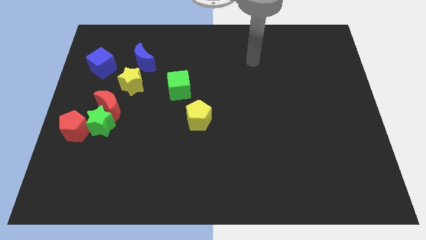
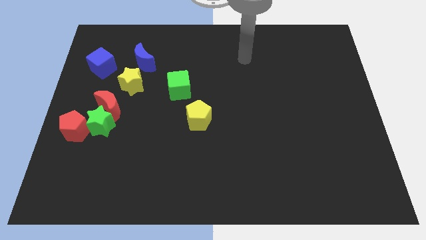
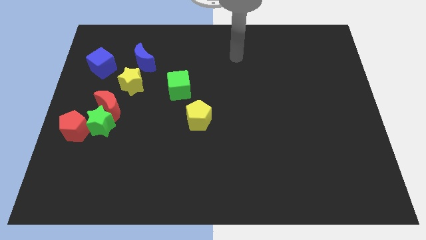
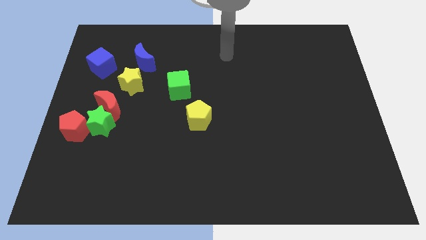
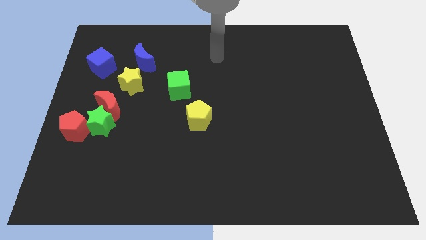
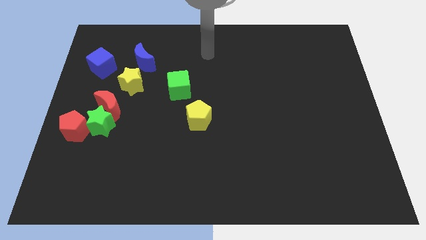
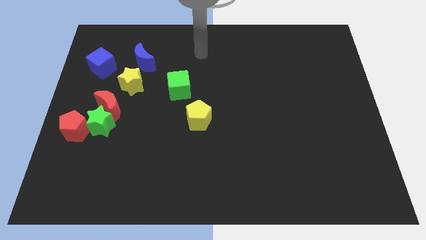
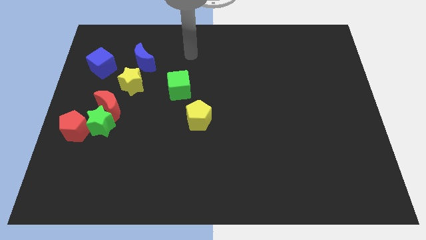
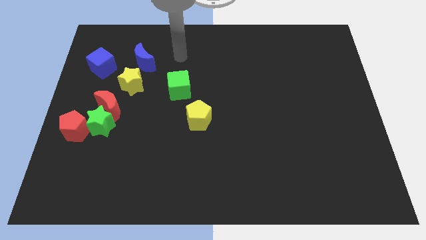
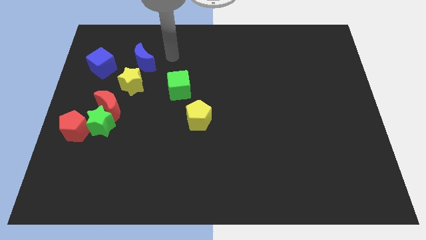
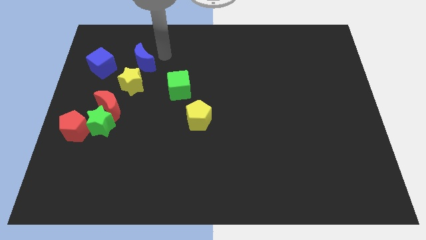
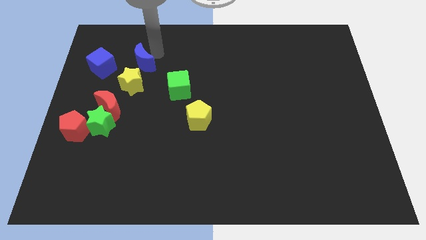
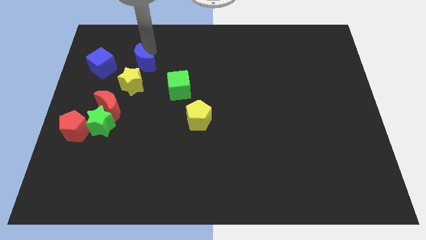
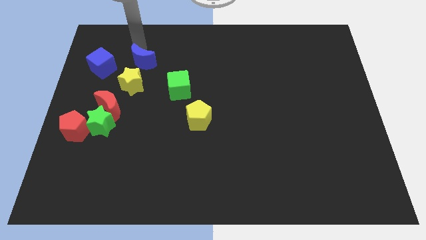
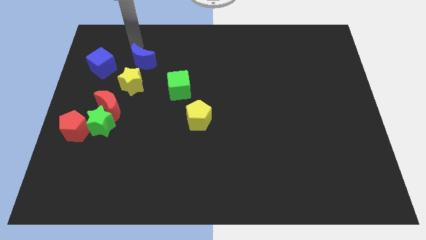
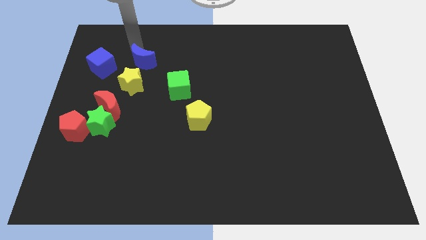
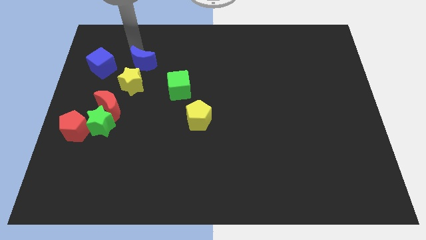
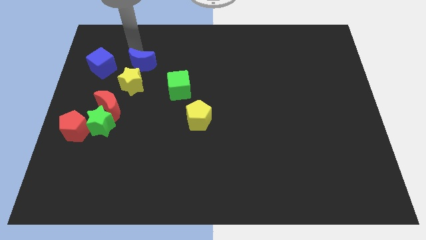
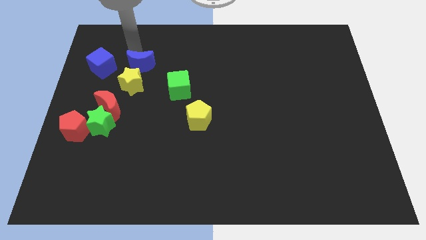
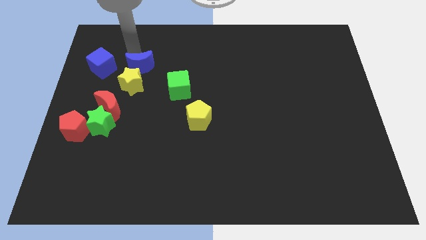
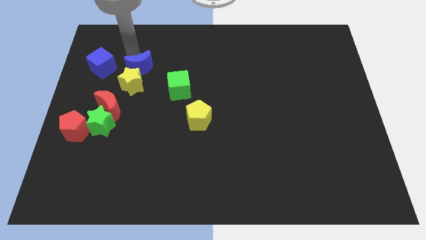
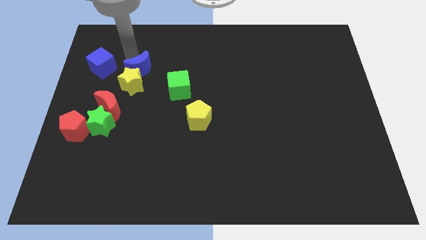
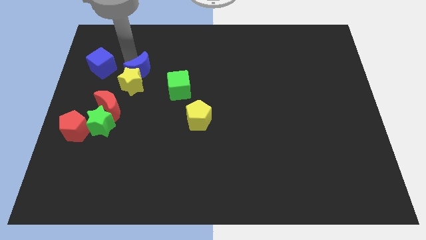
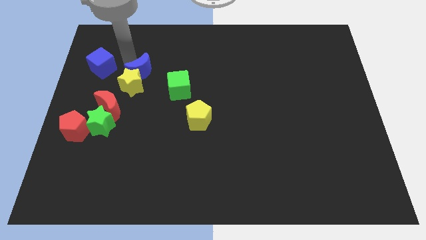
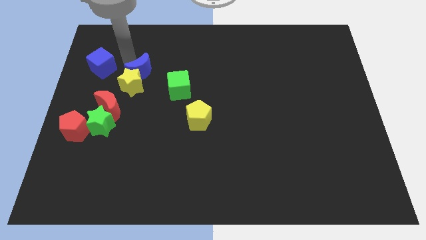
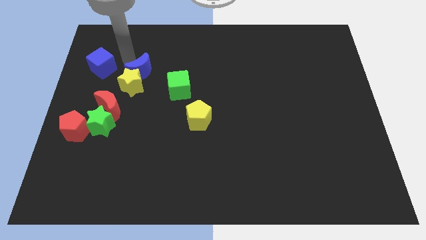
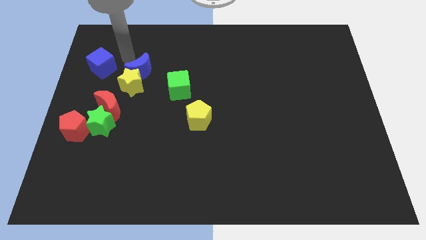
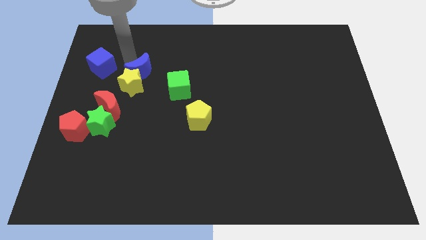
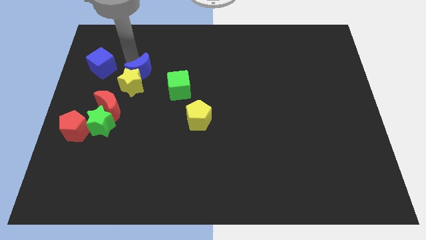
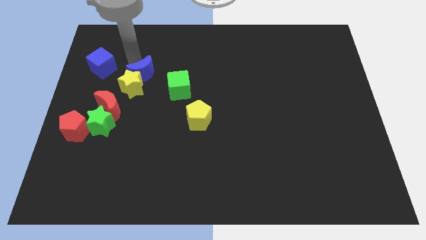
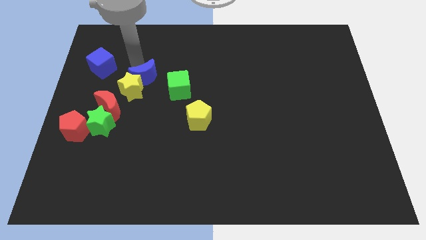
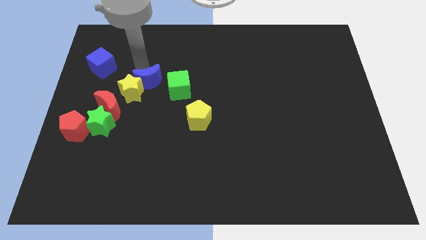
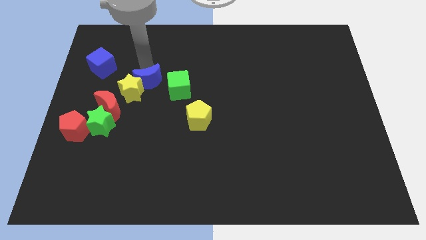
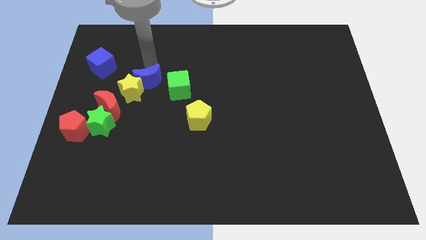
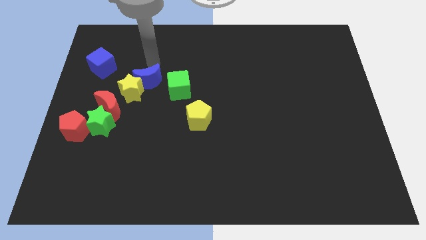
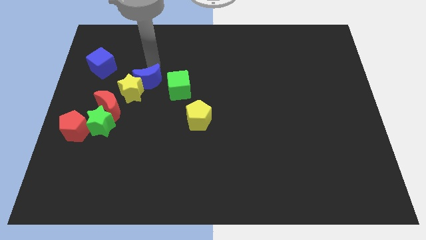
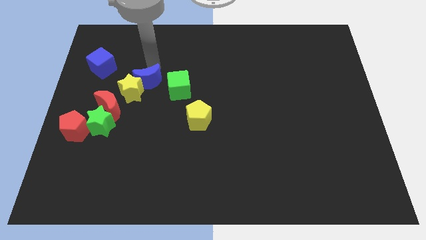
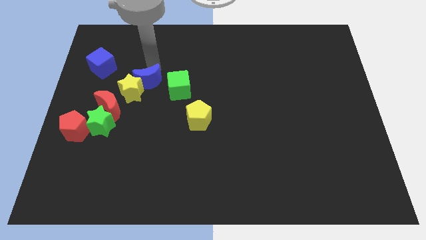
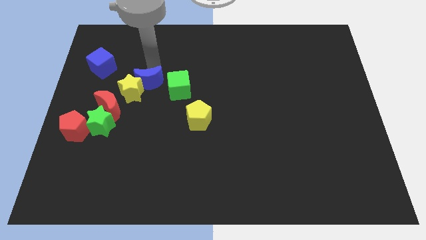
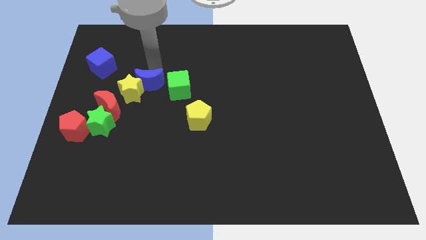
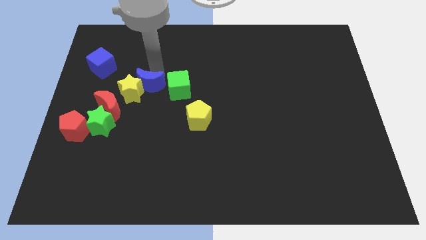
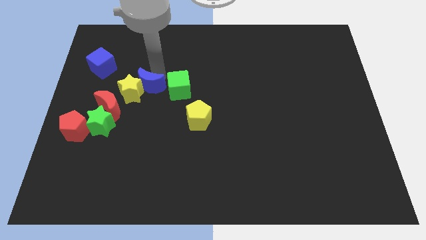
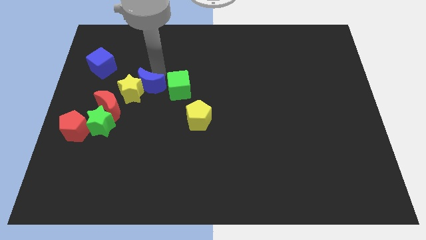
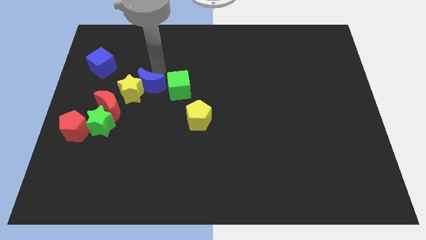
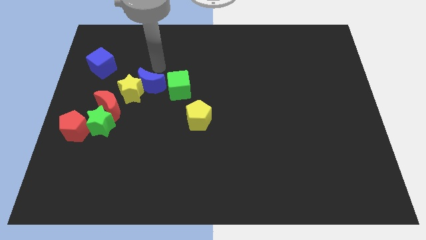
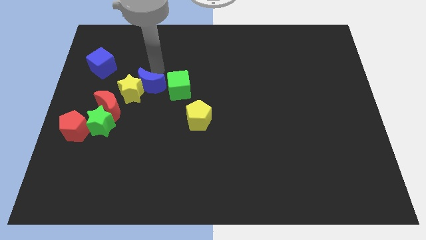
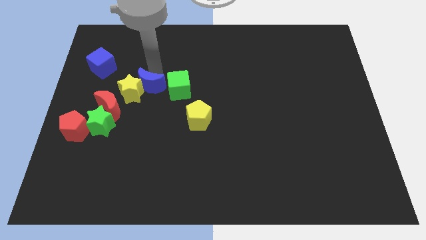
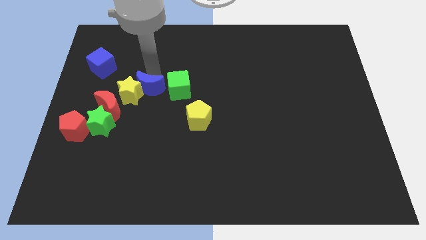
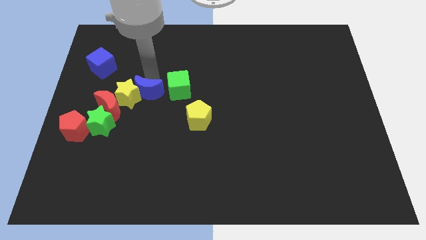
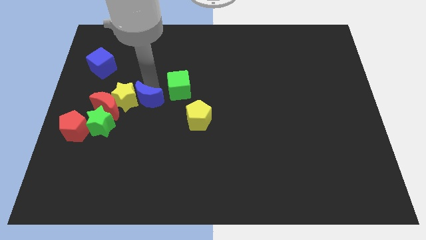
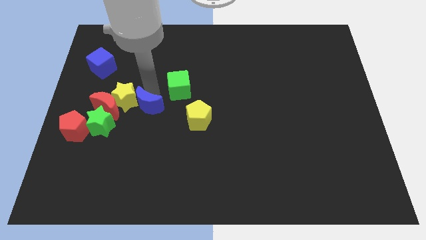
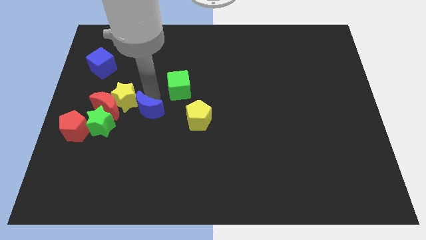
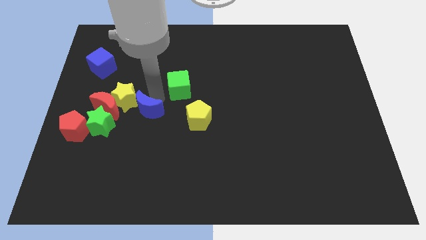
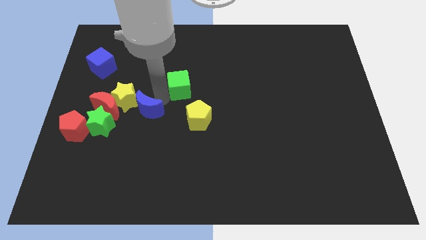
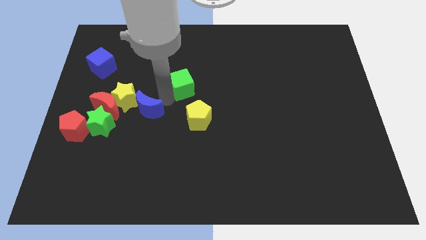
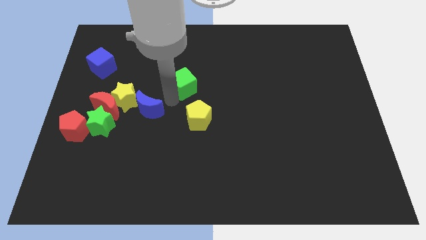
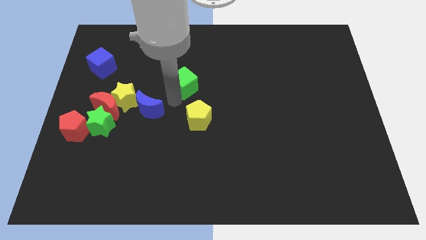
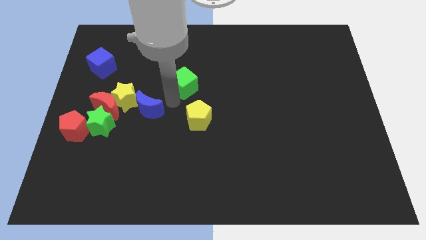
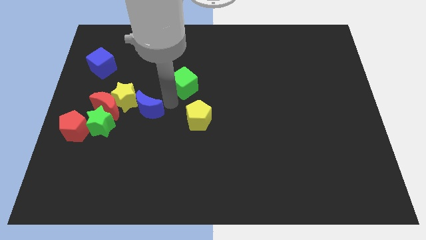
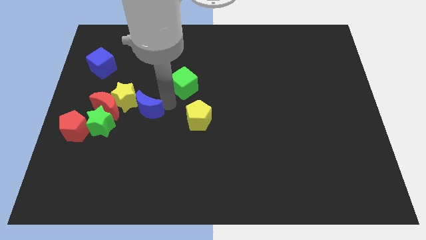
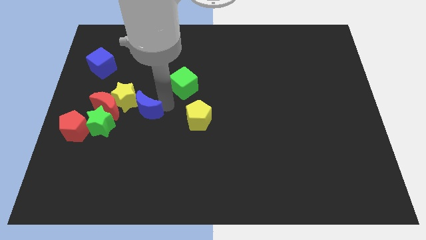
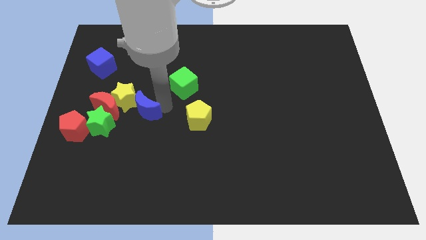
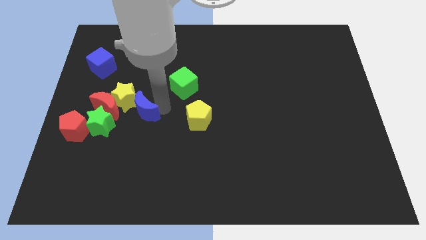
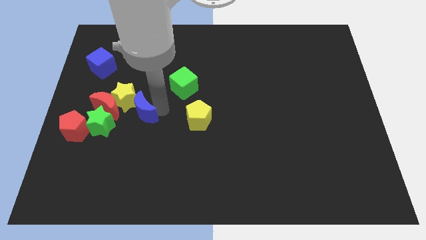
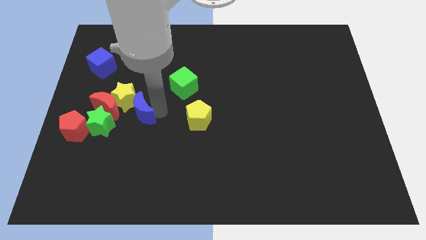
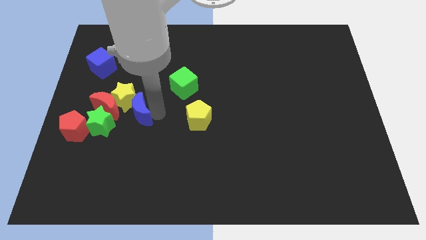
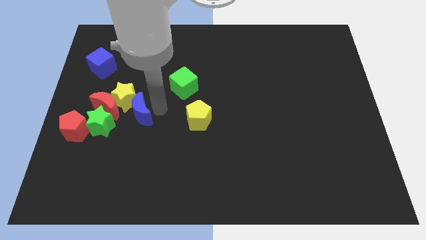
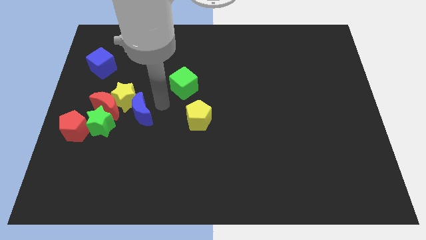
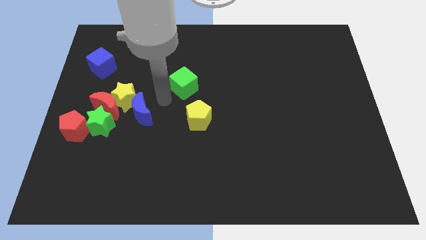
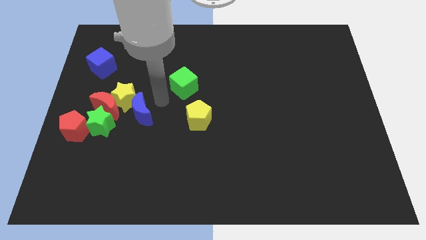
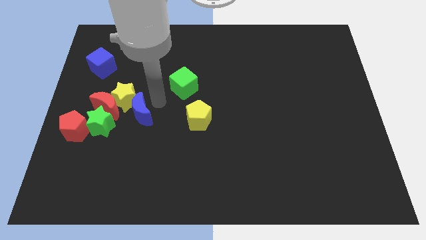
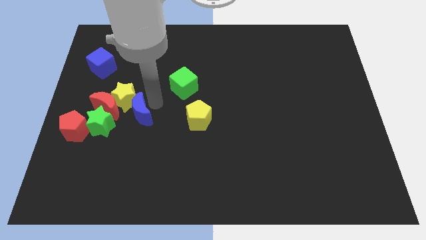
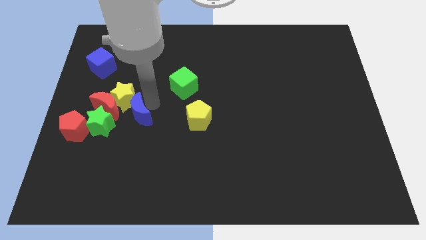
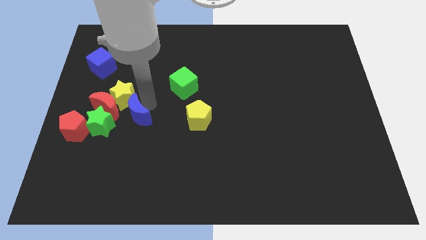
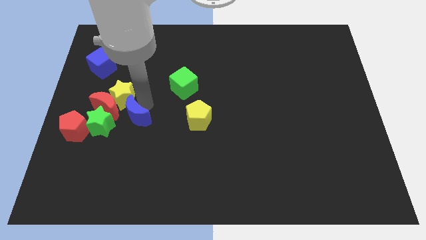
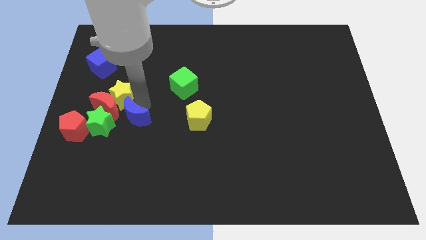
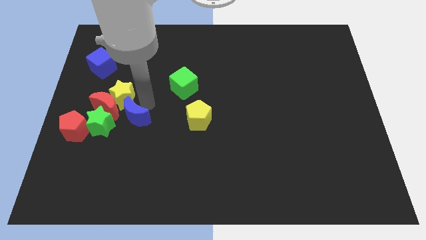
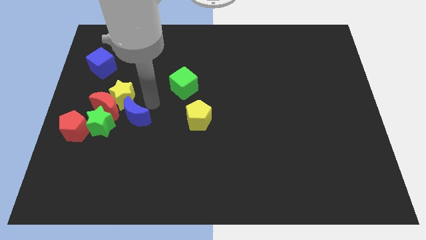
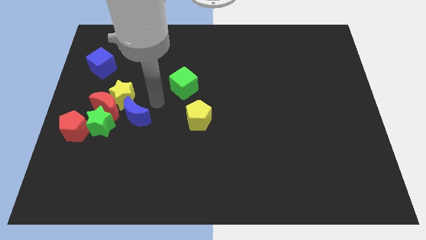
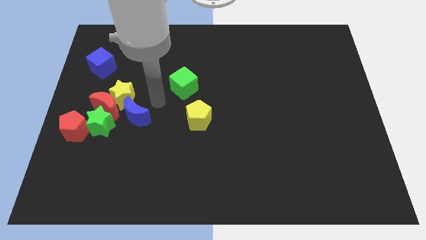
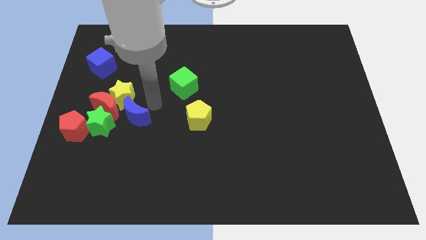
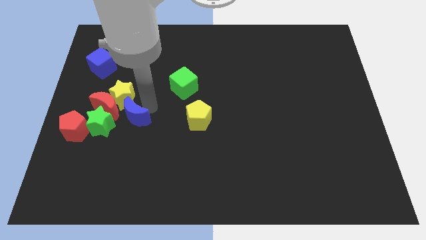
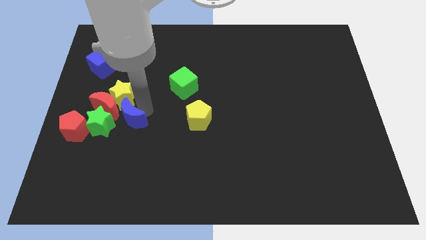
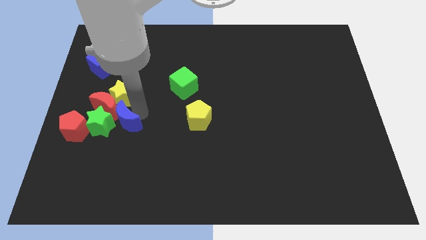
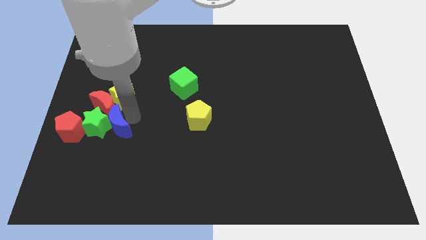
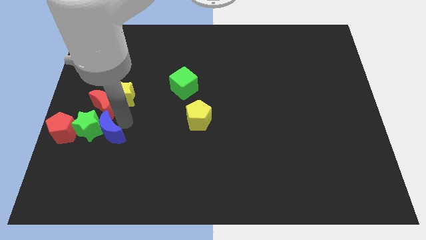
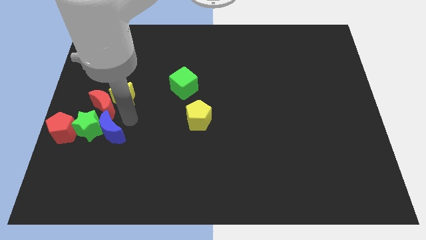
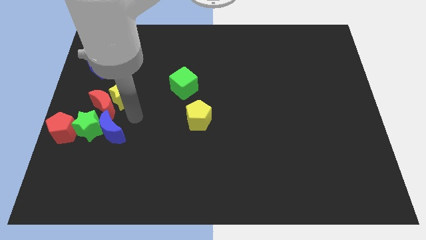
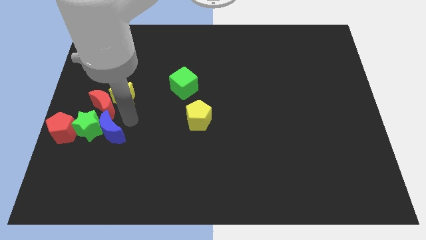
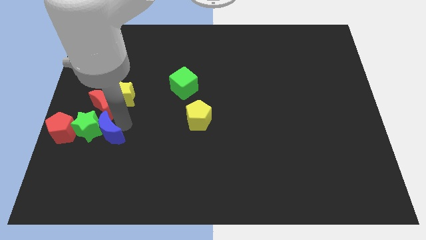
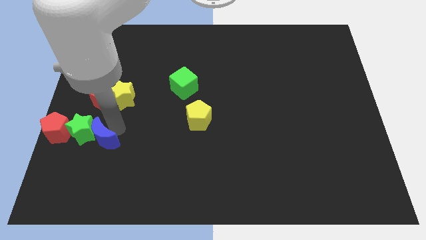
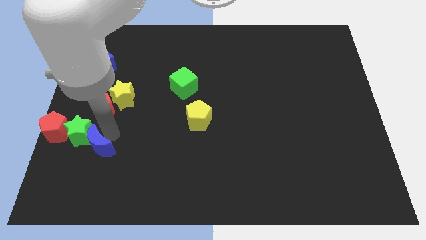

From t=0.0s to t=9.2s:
push the blue moon to the bottom right side of the red pentagon
